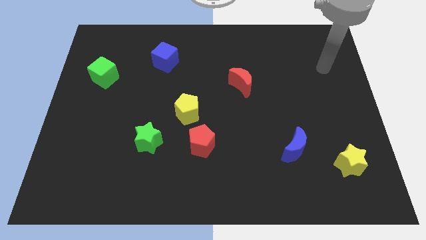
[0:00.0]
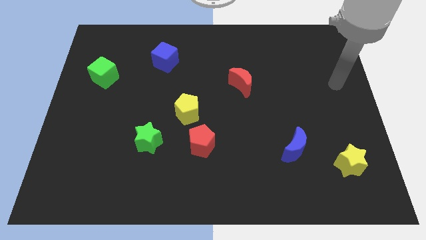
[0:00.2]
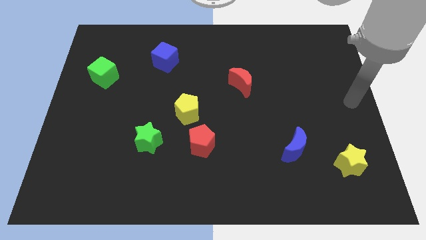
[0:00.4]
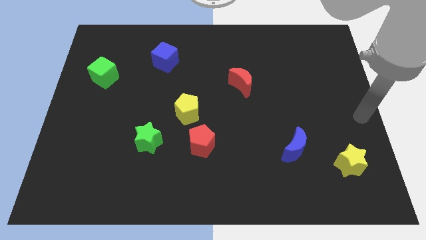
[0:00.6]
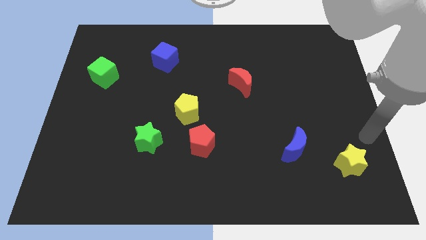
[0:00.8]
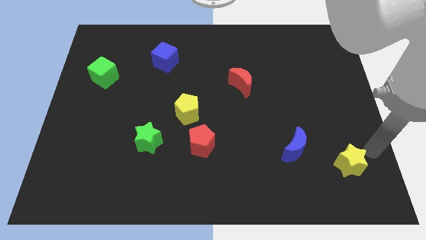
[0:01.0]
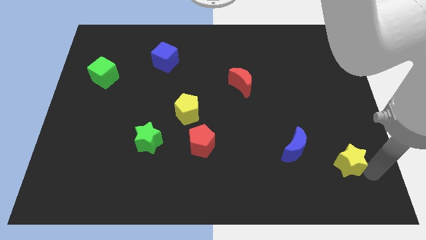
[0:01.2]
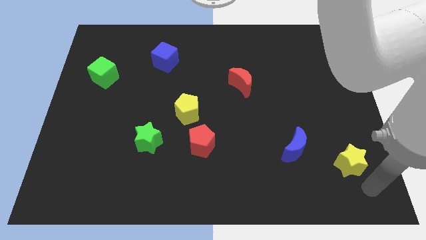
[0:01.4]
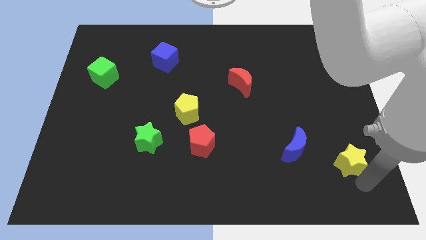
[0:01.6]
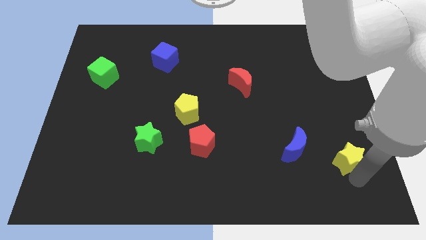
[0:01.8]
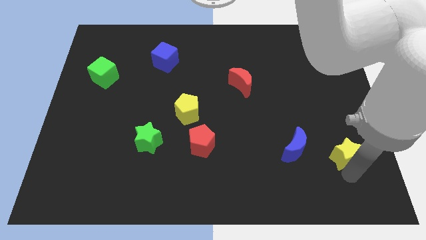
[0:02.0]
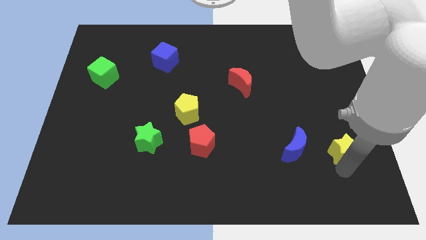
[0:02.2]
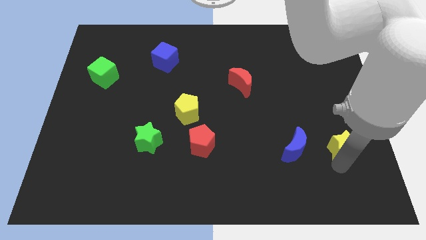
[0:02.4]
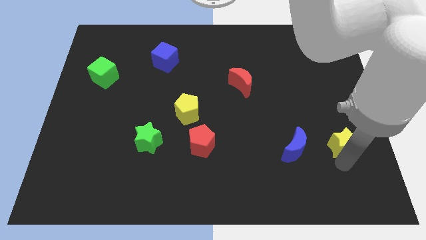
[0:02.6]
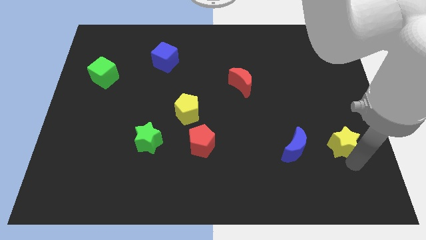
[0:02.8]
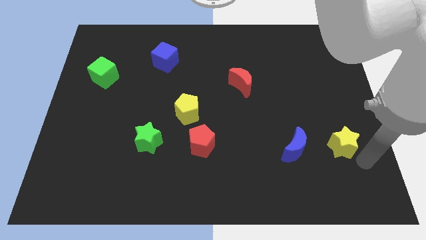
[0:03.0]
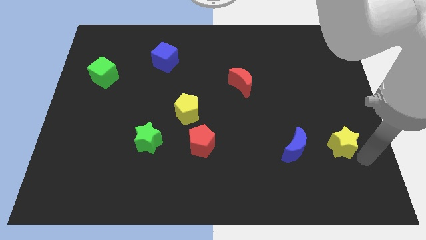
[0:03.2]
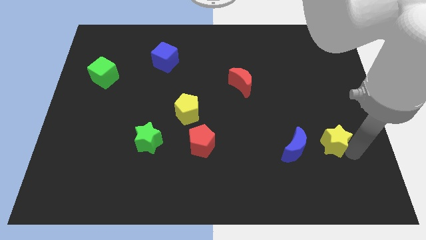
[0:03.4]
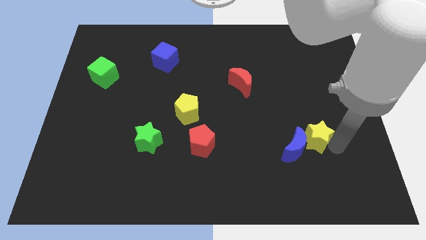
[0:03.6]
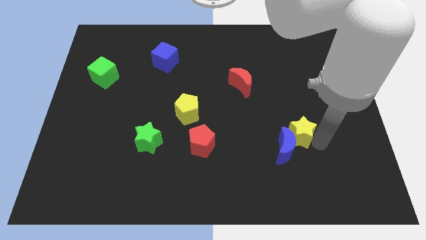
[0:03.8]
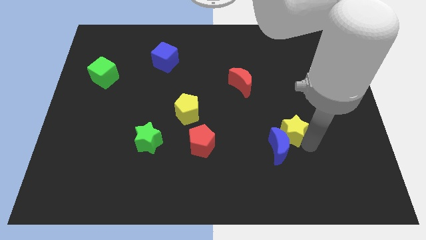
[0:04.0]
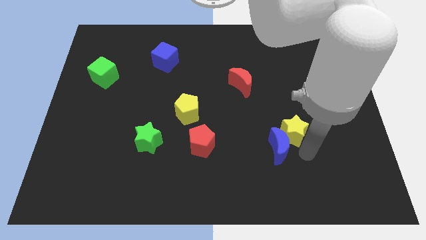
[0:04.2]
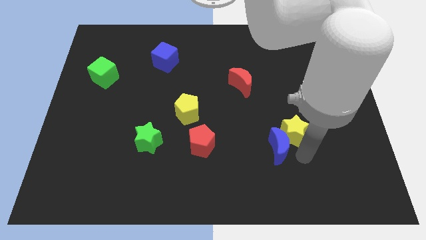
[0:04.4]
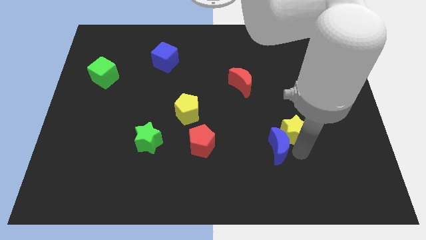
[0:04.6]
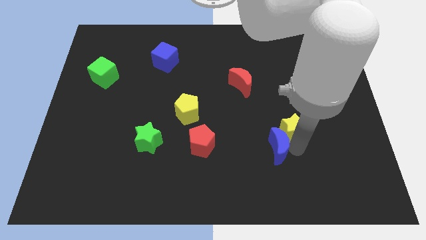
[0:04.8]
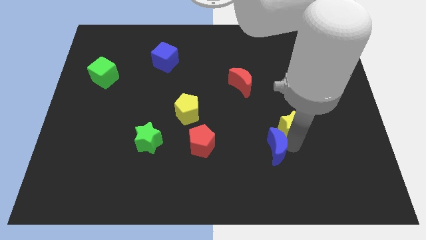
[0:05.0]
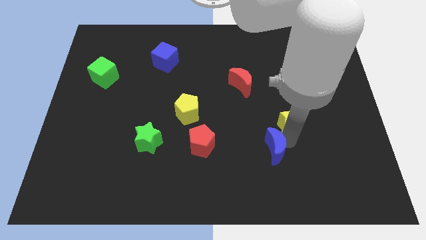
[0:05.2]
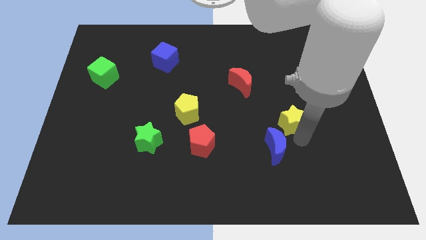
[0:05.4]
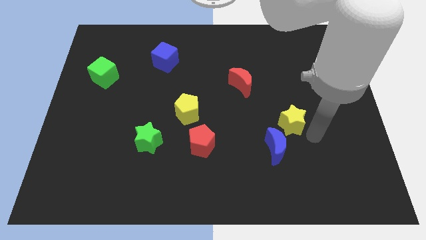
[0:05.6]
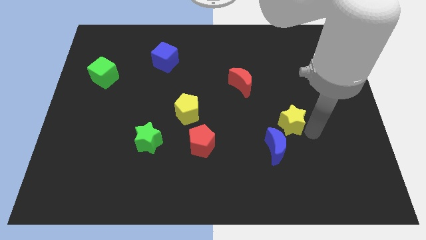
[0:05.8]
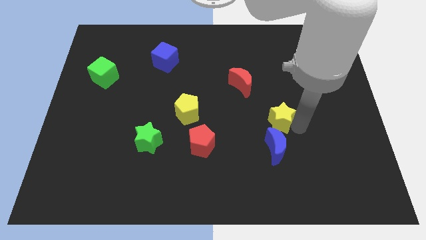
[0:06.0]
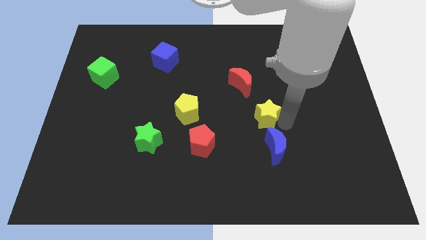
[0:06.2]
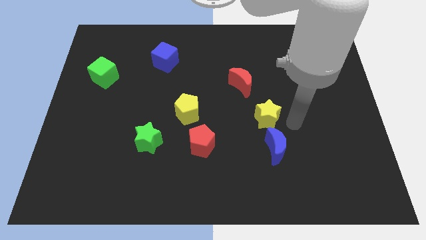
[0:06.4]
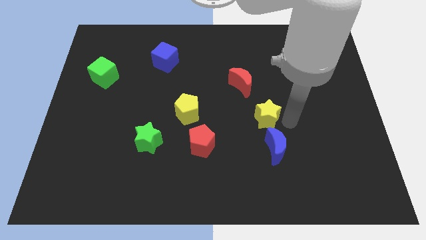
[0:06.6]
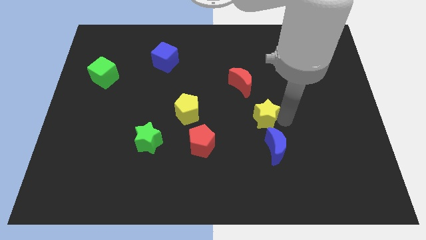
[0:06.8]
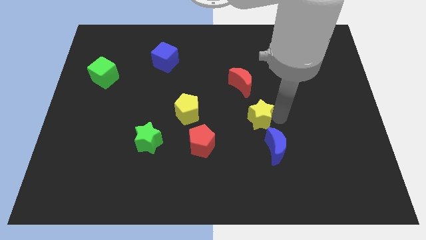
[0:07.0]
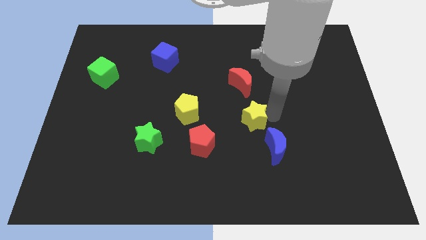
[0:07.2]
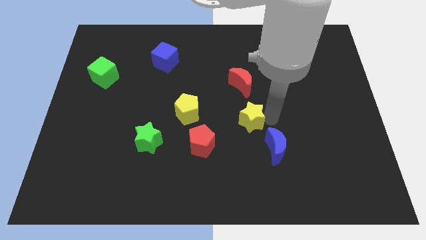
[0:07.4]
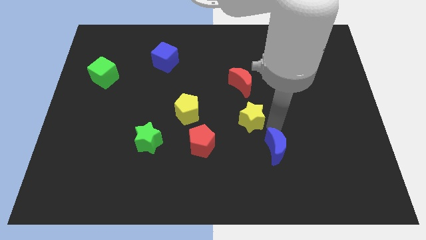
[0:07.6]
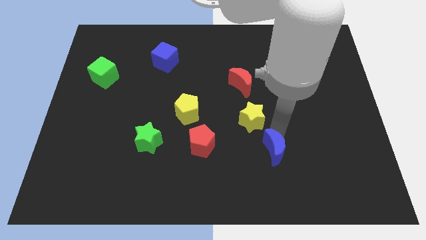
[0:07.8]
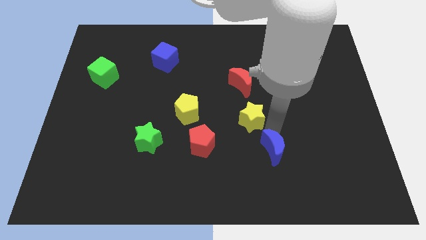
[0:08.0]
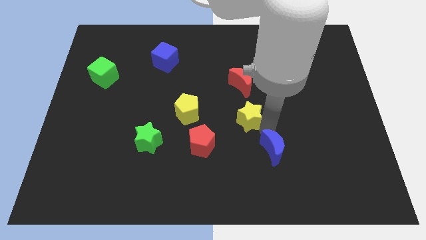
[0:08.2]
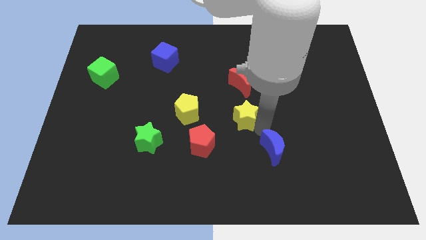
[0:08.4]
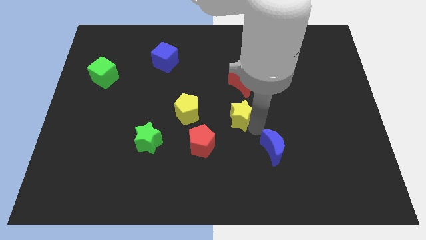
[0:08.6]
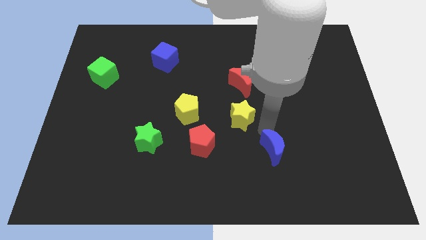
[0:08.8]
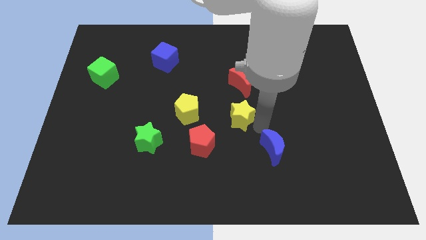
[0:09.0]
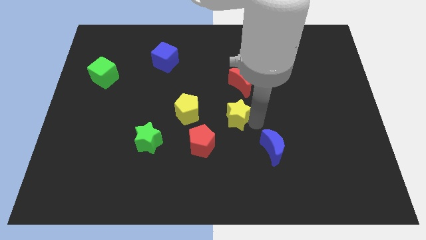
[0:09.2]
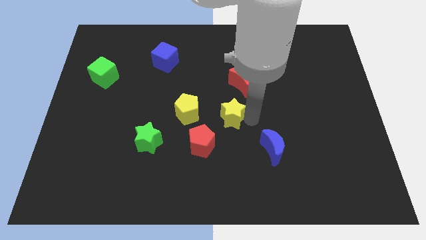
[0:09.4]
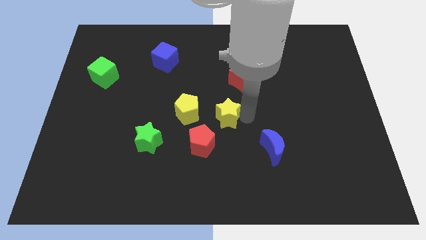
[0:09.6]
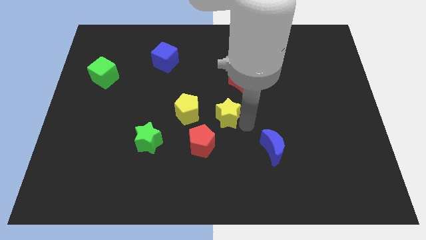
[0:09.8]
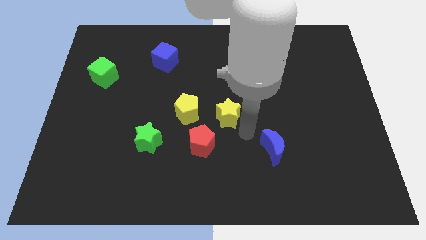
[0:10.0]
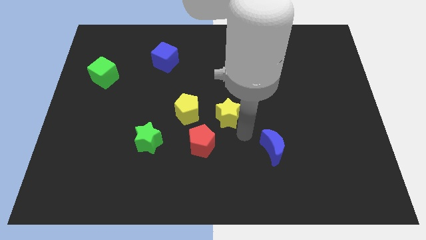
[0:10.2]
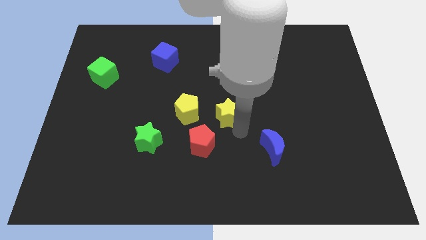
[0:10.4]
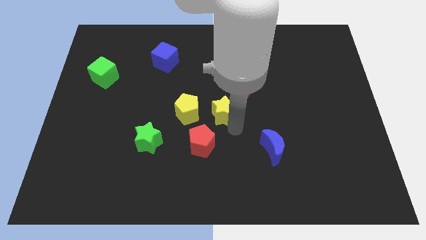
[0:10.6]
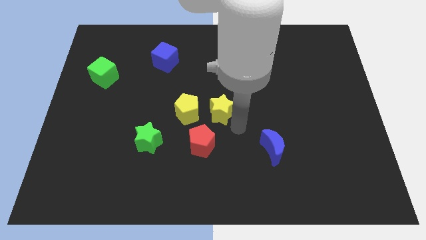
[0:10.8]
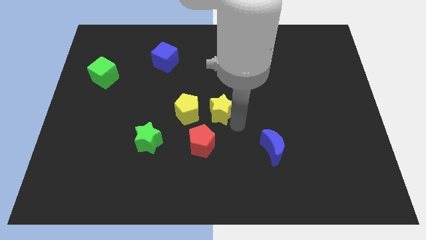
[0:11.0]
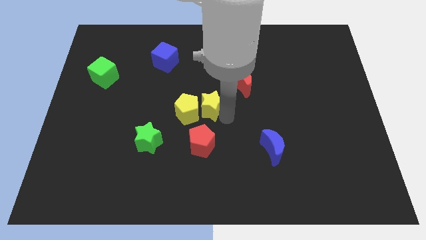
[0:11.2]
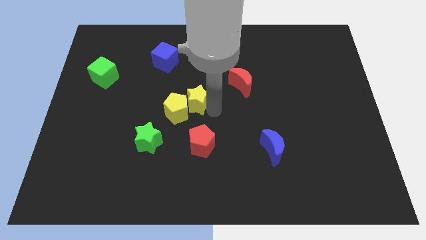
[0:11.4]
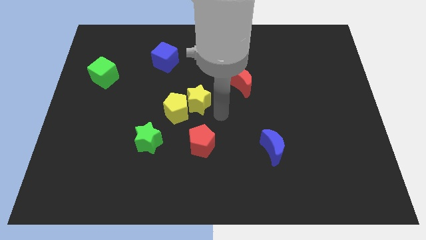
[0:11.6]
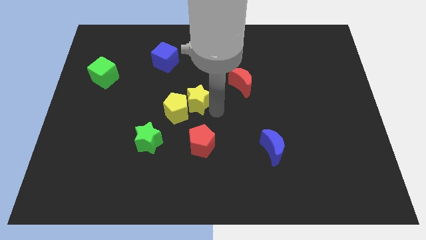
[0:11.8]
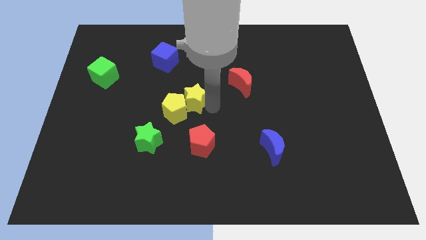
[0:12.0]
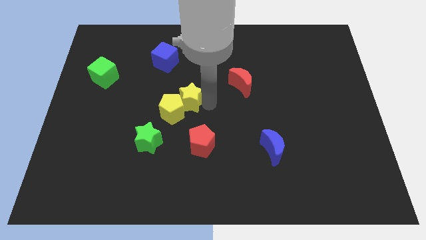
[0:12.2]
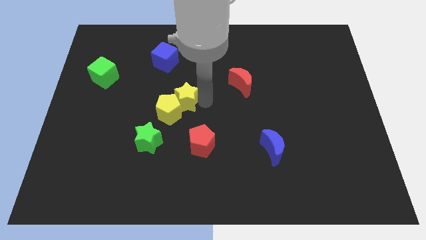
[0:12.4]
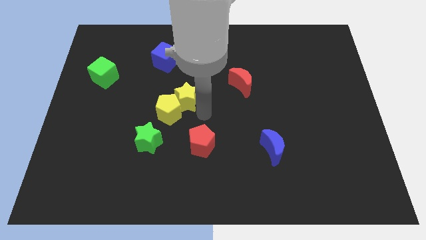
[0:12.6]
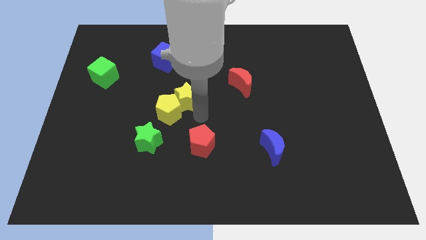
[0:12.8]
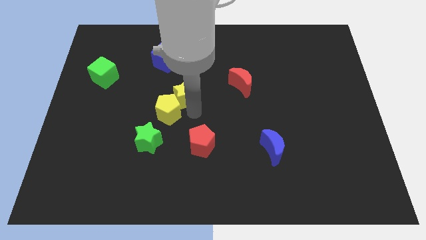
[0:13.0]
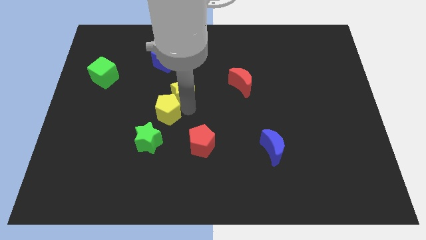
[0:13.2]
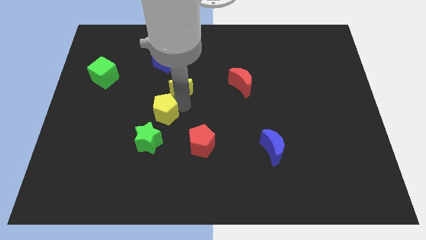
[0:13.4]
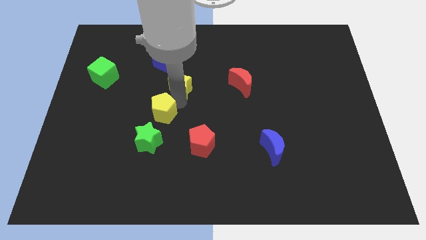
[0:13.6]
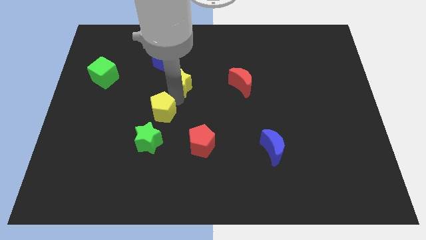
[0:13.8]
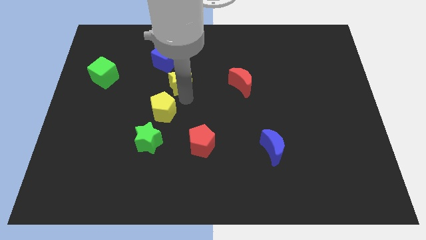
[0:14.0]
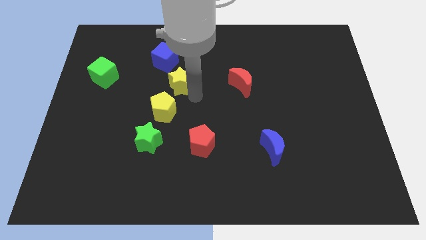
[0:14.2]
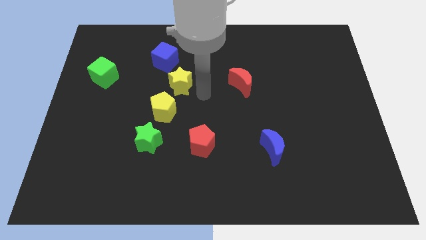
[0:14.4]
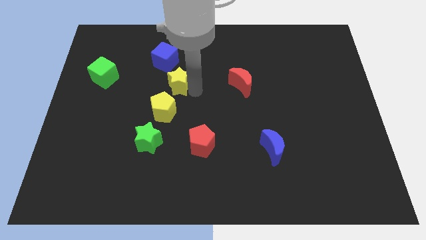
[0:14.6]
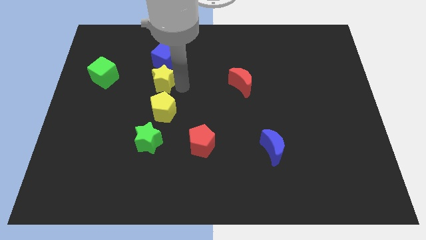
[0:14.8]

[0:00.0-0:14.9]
slide the yellow star to the right side of the green cube
